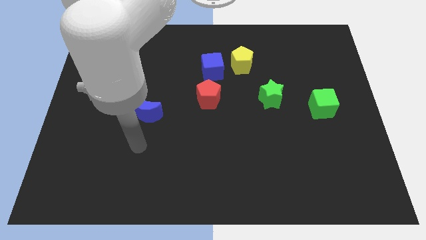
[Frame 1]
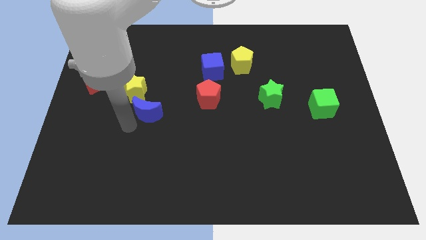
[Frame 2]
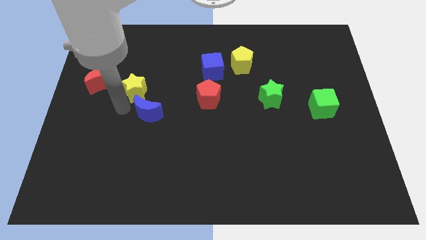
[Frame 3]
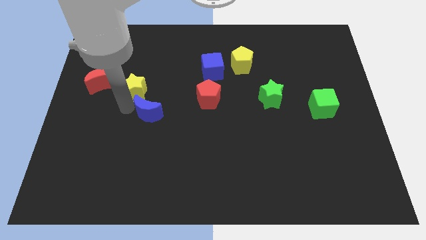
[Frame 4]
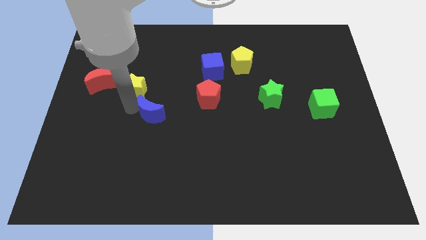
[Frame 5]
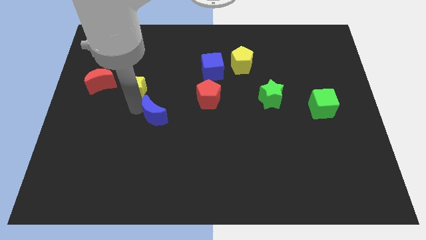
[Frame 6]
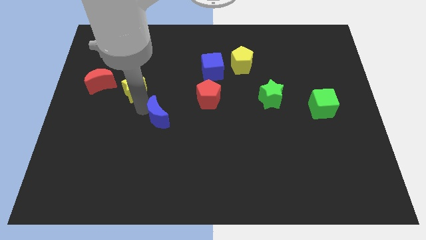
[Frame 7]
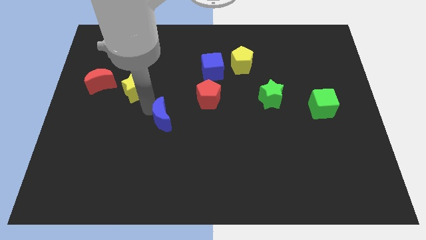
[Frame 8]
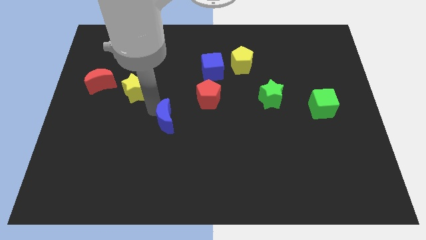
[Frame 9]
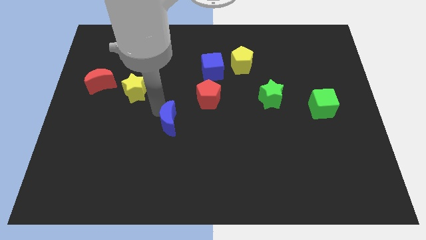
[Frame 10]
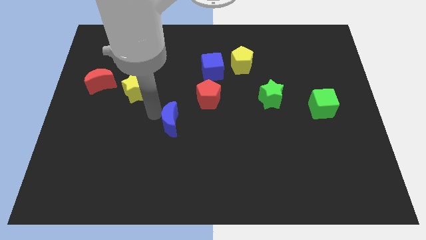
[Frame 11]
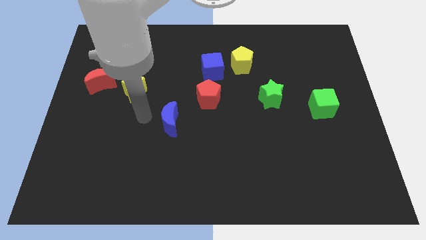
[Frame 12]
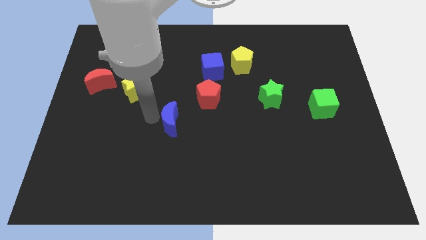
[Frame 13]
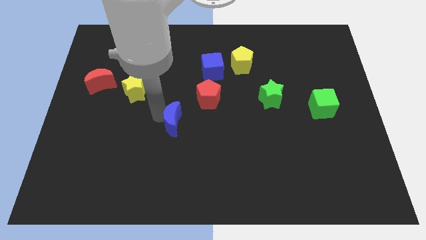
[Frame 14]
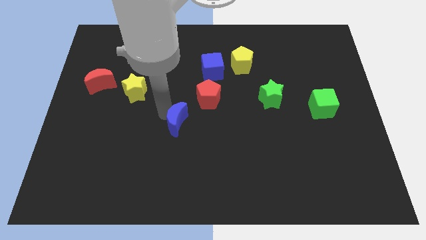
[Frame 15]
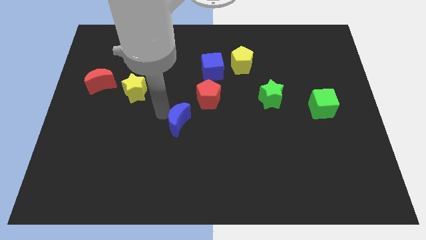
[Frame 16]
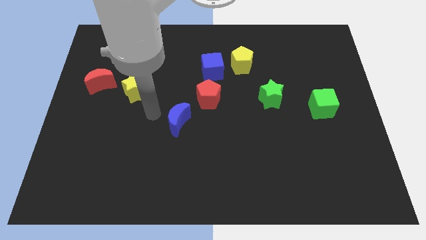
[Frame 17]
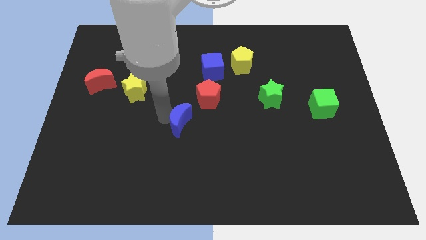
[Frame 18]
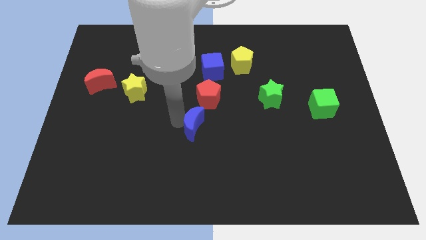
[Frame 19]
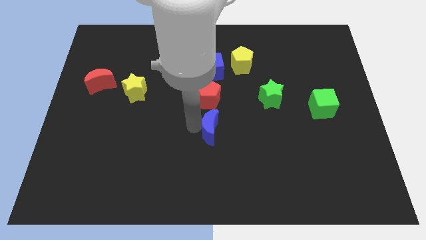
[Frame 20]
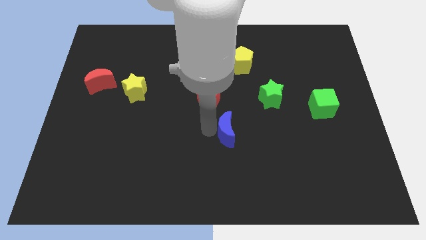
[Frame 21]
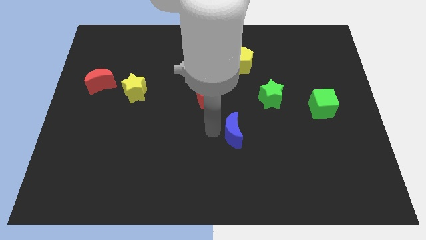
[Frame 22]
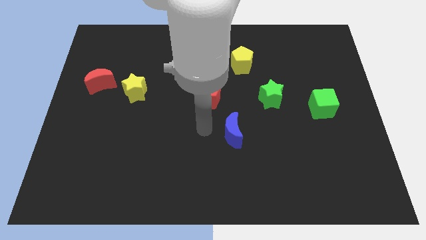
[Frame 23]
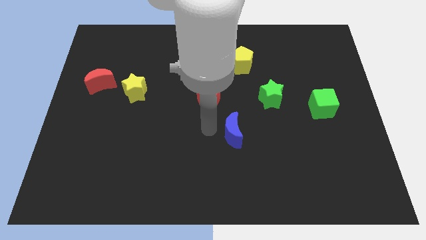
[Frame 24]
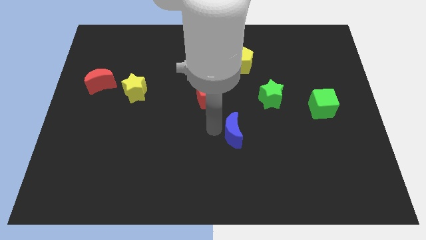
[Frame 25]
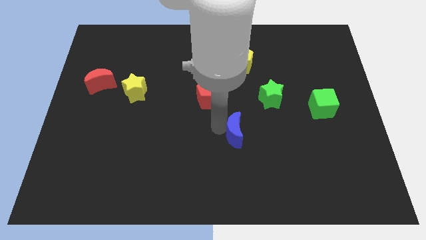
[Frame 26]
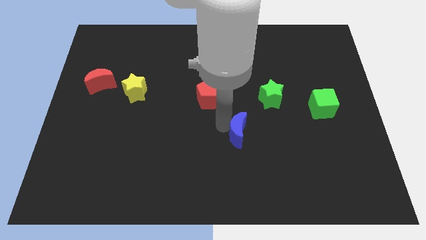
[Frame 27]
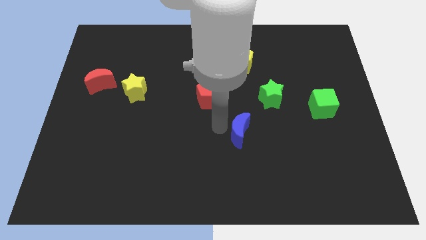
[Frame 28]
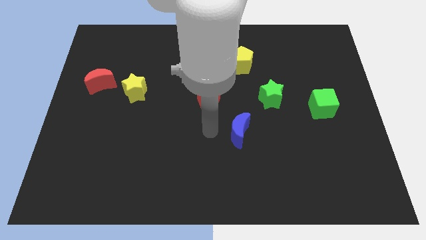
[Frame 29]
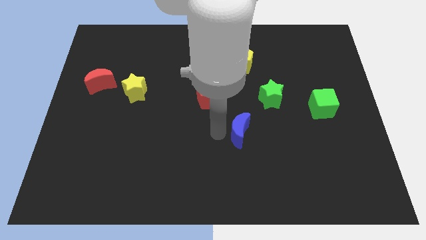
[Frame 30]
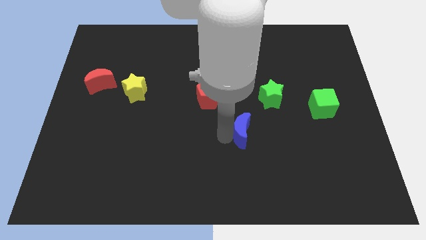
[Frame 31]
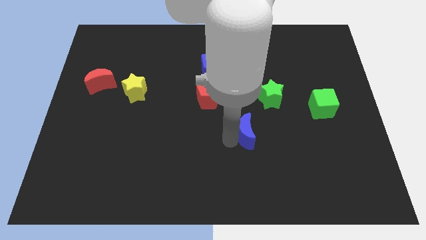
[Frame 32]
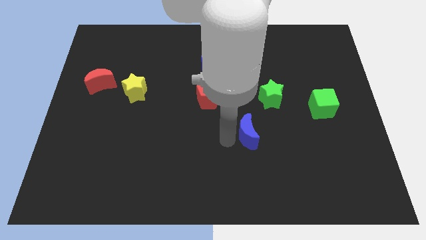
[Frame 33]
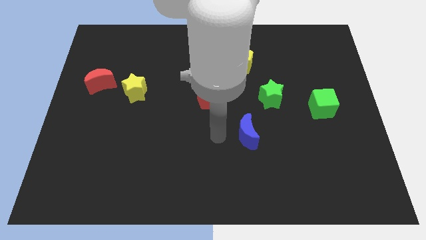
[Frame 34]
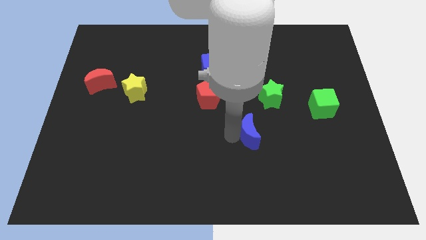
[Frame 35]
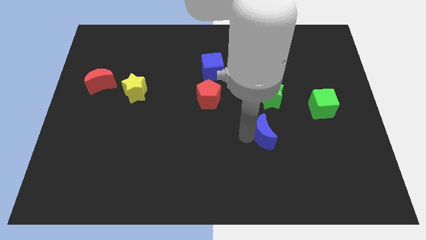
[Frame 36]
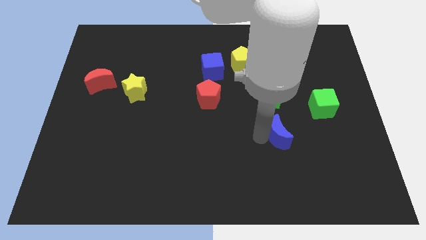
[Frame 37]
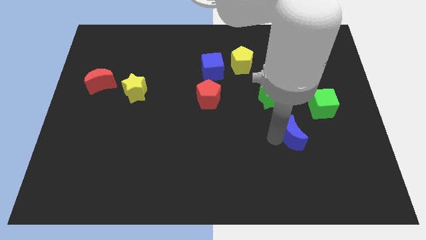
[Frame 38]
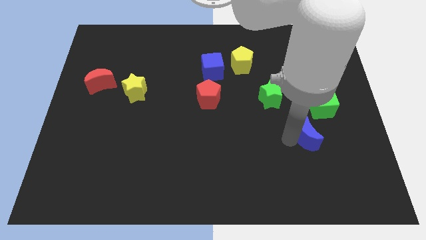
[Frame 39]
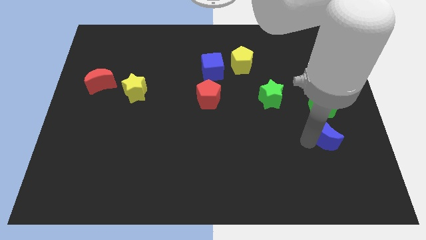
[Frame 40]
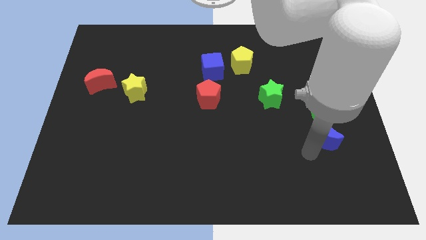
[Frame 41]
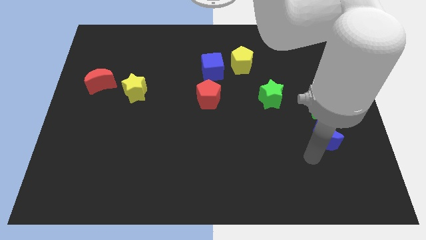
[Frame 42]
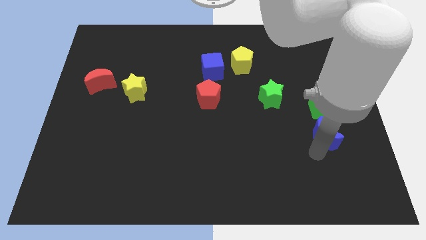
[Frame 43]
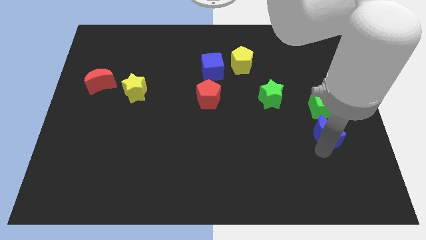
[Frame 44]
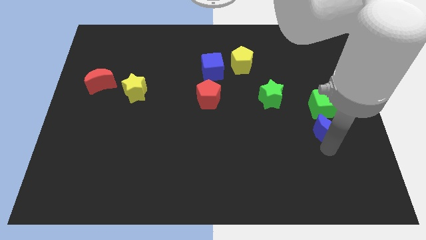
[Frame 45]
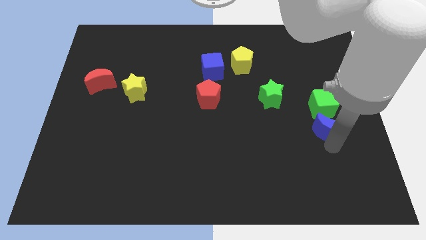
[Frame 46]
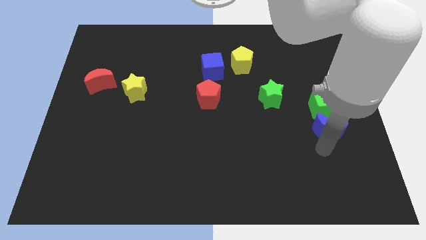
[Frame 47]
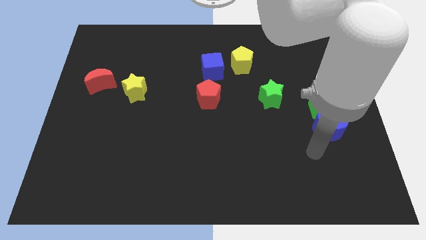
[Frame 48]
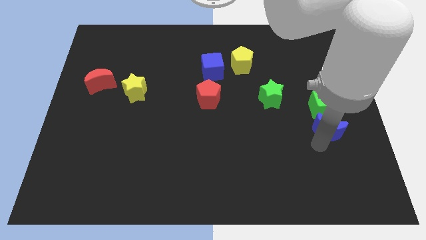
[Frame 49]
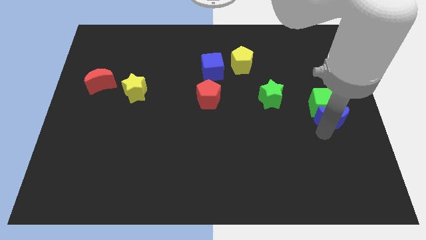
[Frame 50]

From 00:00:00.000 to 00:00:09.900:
move the blue moon to the center right

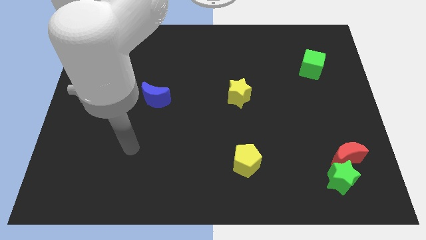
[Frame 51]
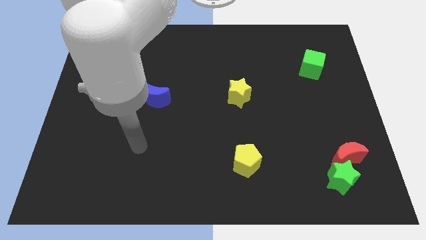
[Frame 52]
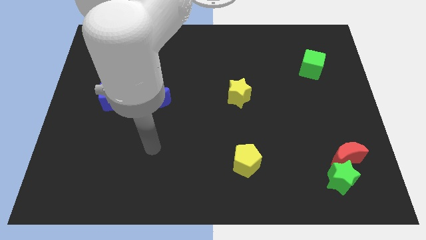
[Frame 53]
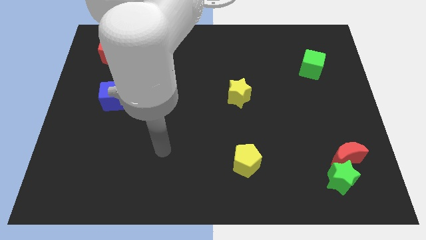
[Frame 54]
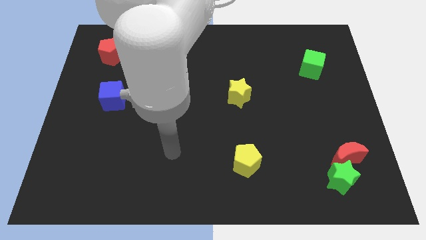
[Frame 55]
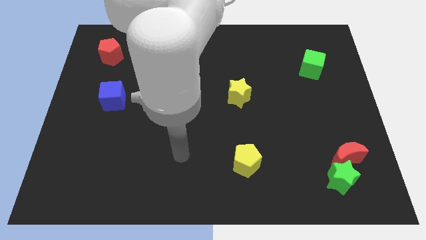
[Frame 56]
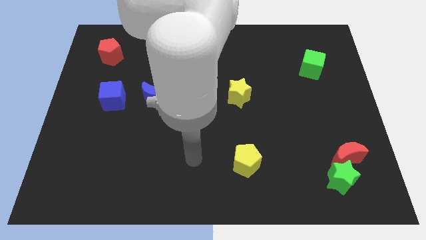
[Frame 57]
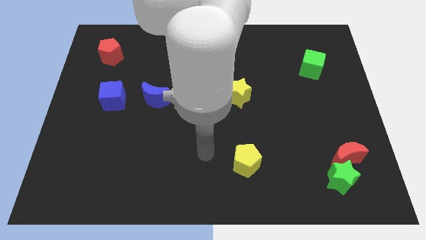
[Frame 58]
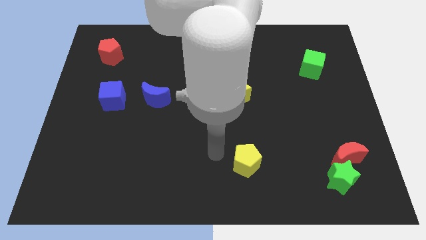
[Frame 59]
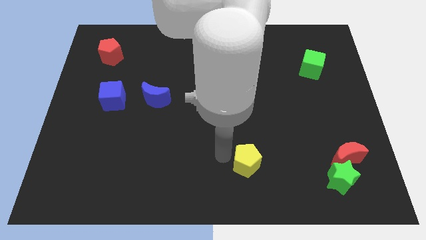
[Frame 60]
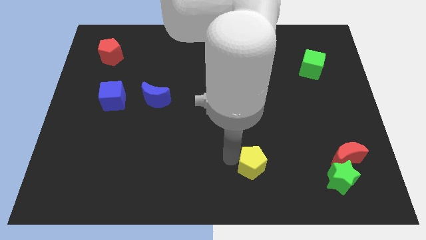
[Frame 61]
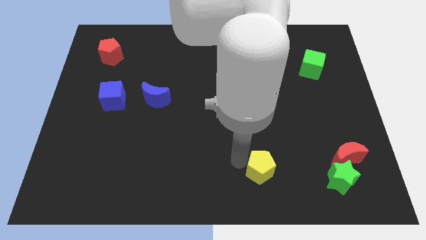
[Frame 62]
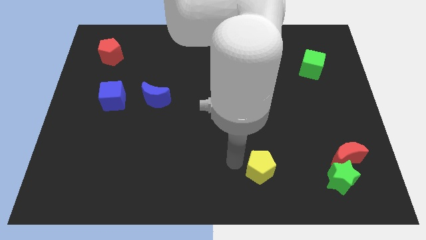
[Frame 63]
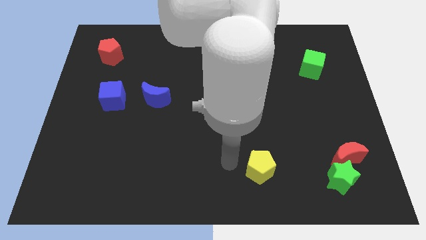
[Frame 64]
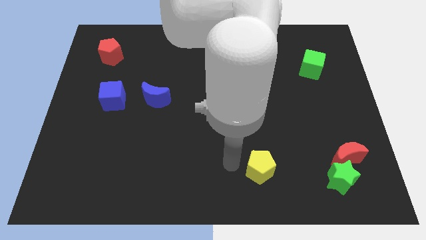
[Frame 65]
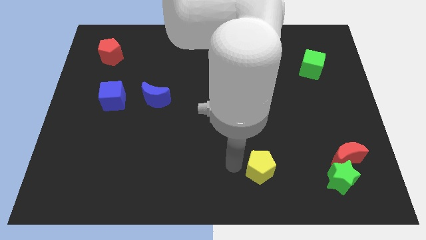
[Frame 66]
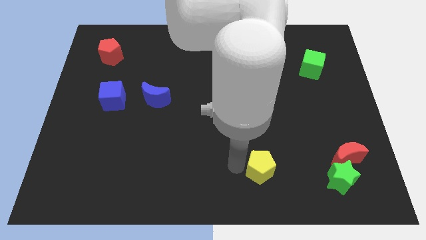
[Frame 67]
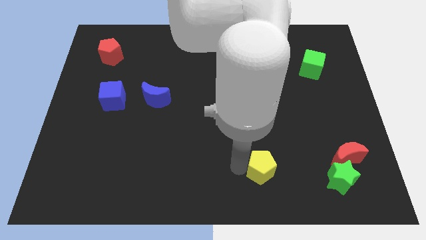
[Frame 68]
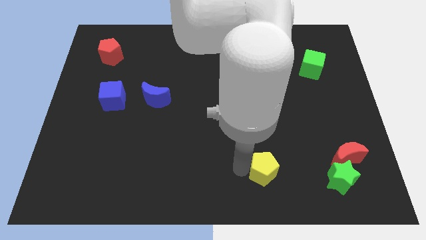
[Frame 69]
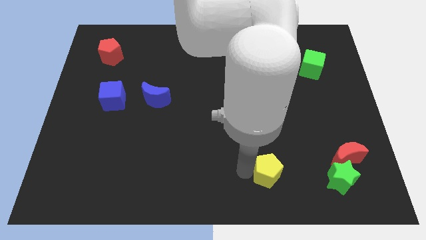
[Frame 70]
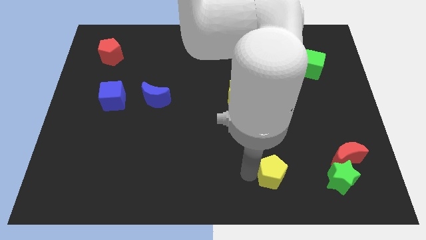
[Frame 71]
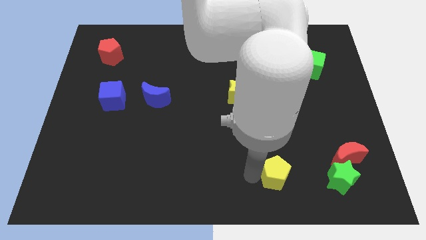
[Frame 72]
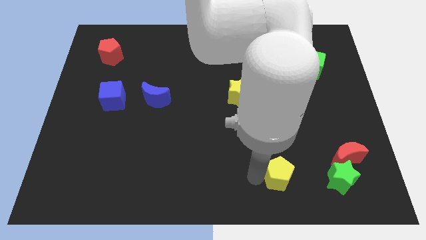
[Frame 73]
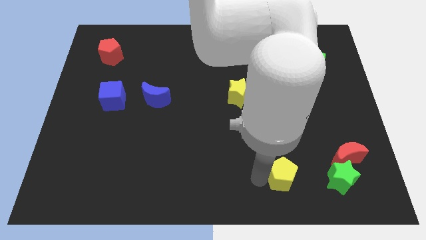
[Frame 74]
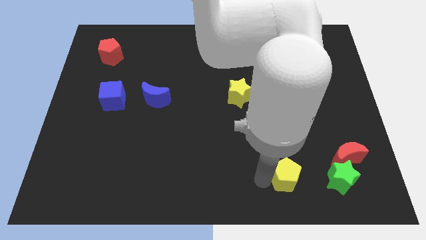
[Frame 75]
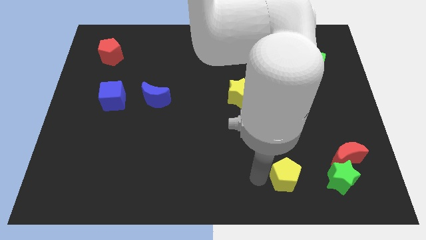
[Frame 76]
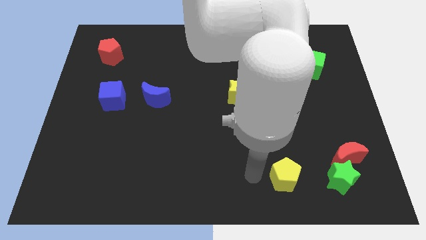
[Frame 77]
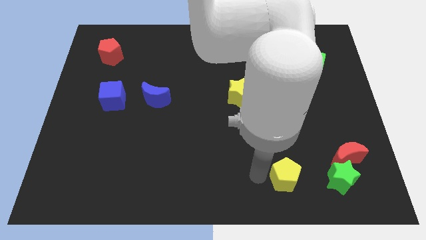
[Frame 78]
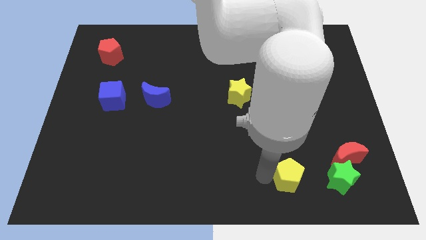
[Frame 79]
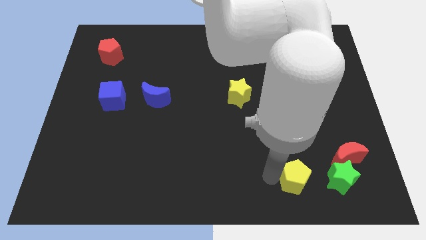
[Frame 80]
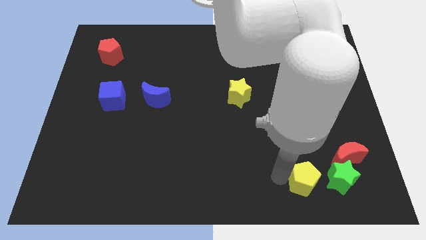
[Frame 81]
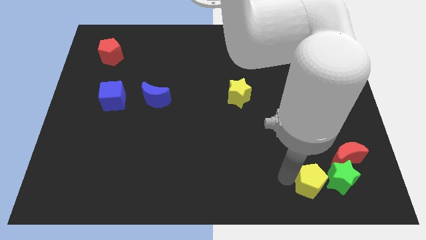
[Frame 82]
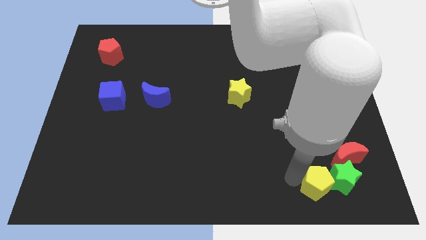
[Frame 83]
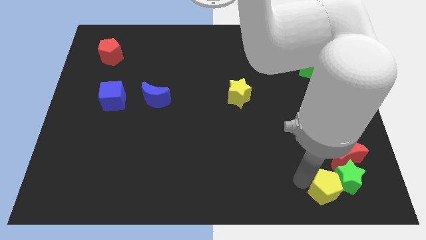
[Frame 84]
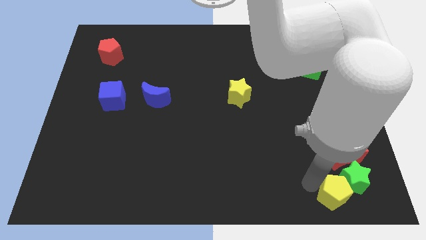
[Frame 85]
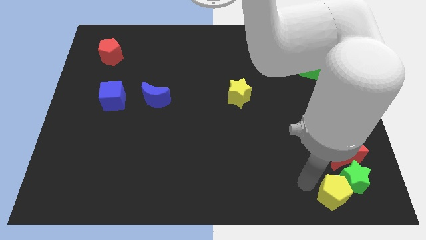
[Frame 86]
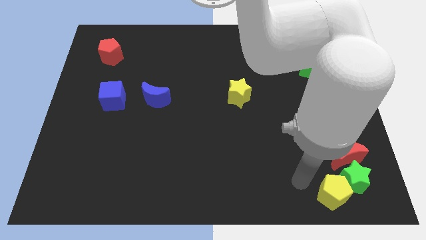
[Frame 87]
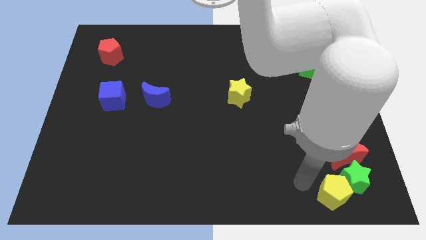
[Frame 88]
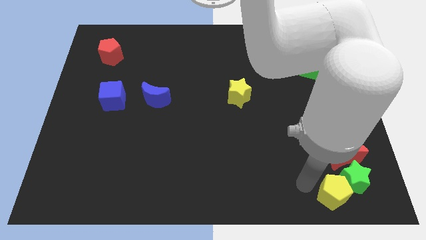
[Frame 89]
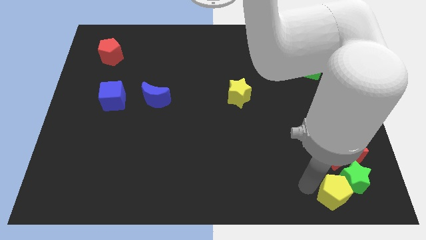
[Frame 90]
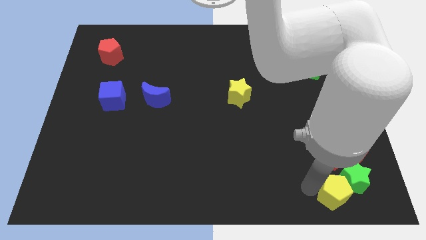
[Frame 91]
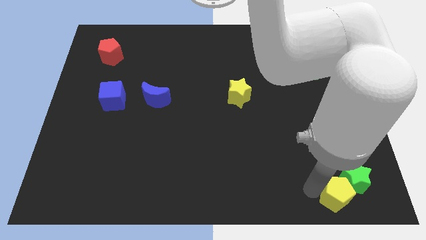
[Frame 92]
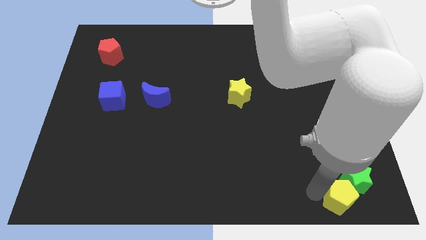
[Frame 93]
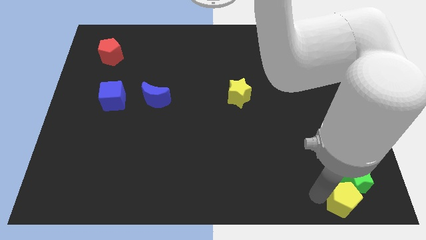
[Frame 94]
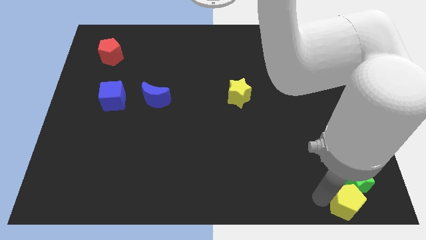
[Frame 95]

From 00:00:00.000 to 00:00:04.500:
slide the yellow pentagon to the bottom right
